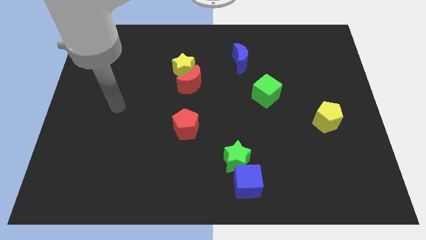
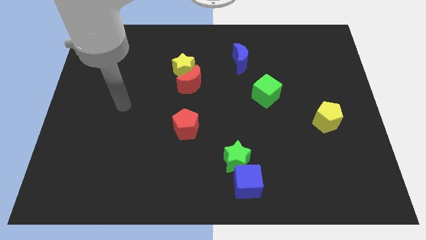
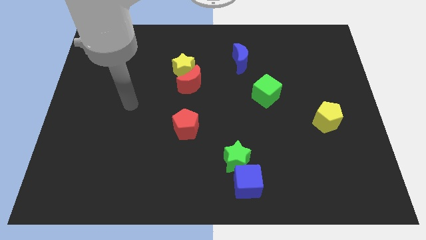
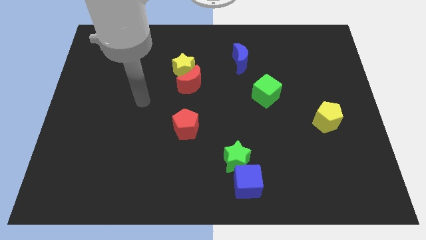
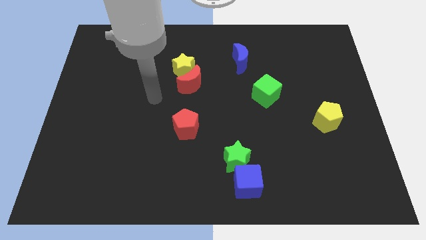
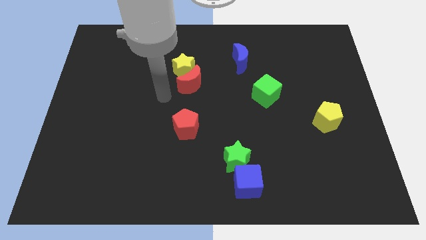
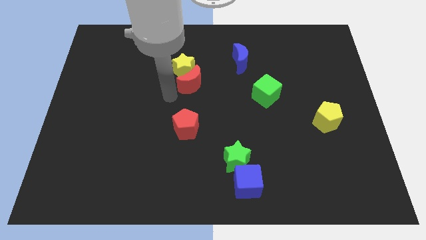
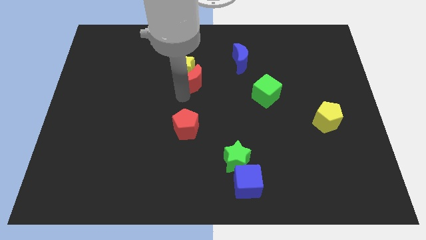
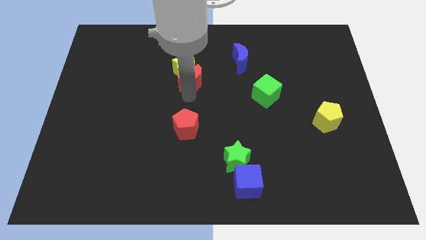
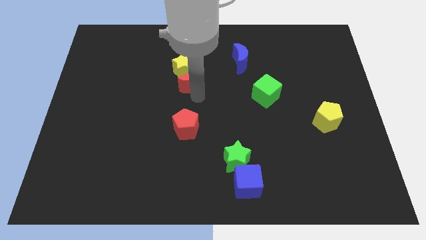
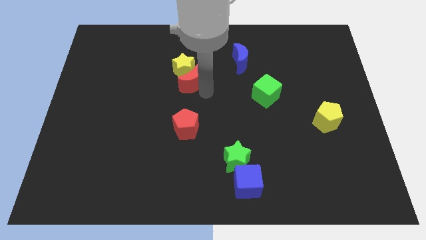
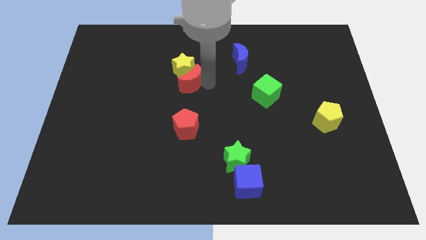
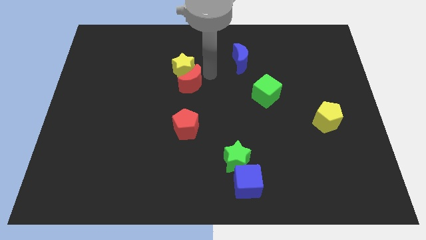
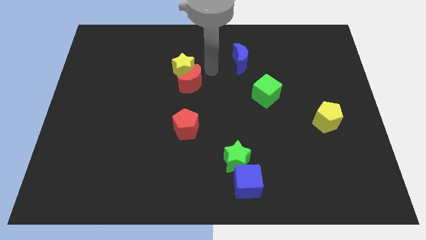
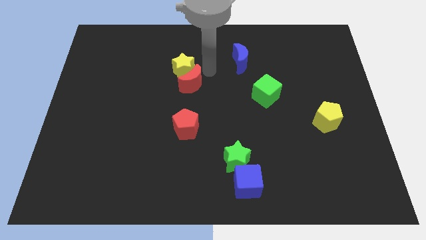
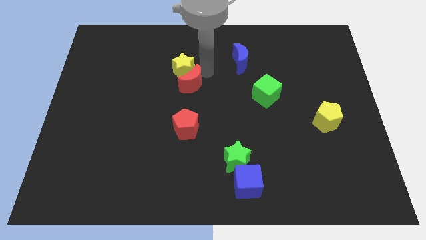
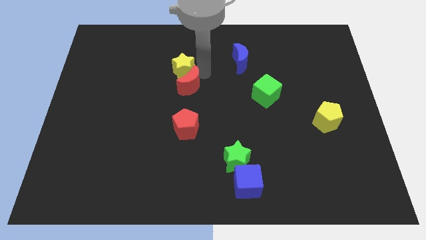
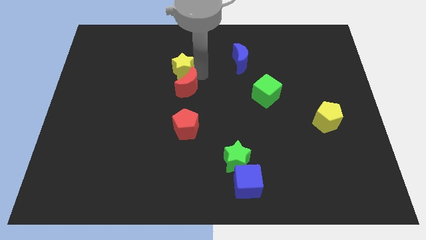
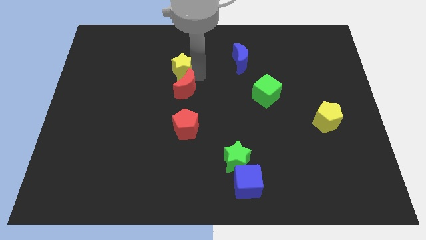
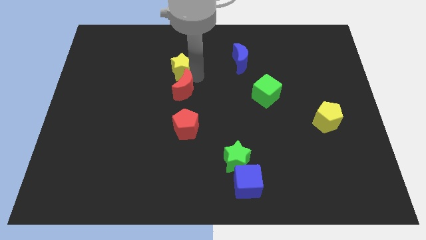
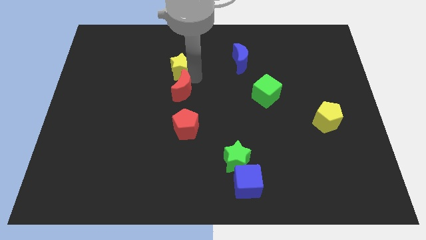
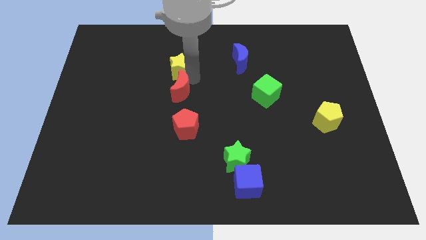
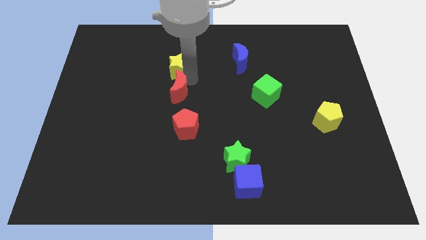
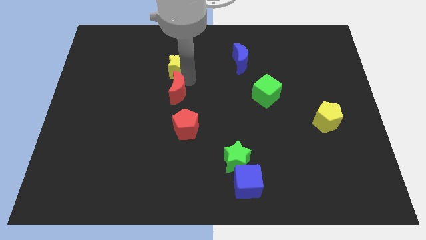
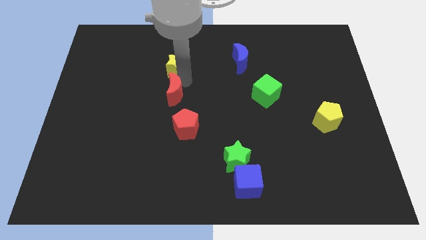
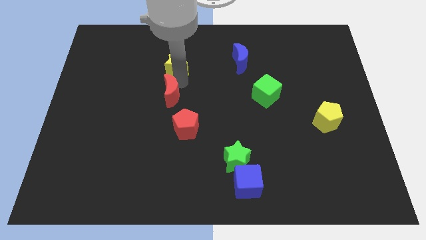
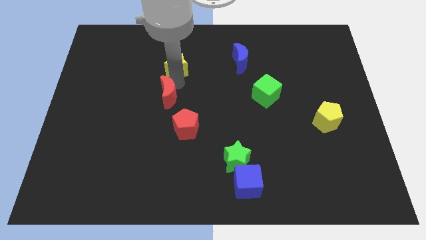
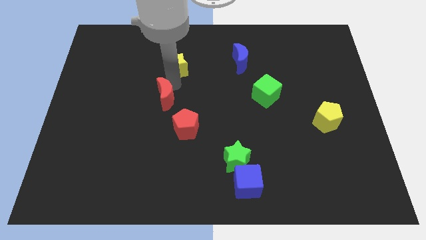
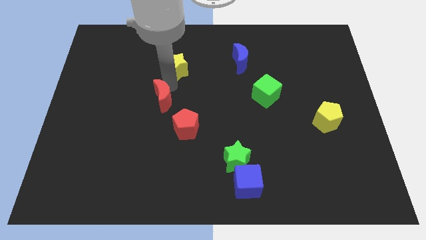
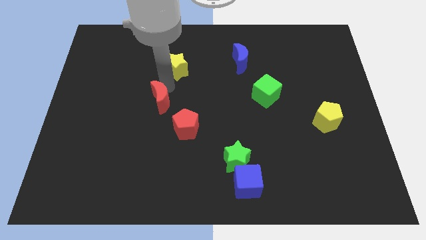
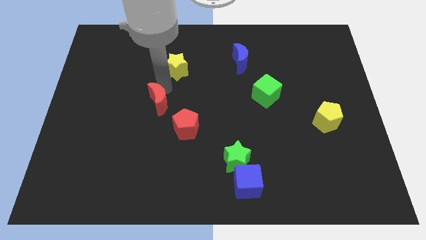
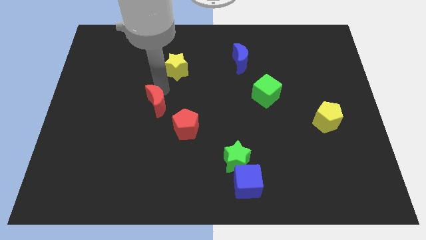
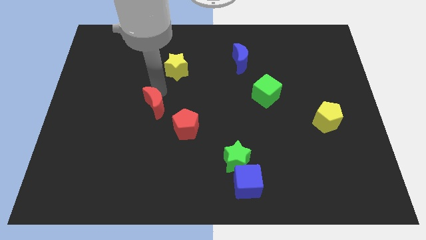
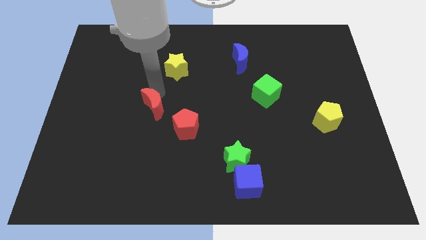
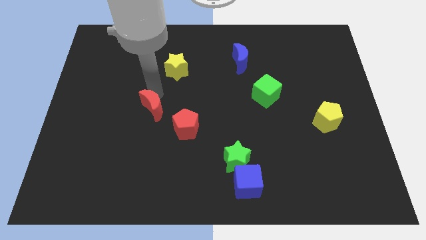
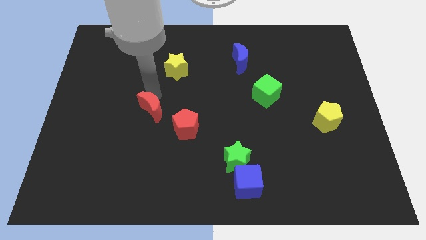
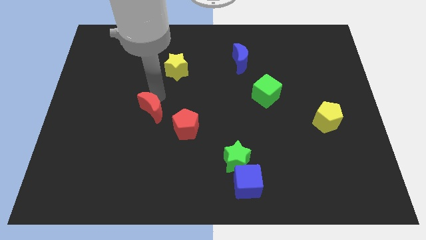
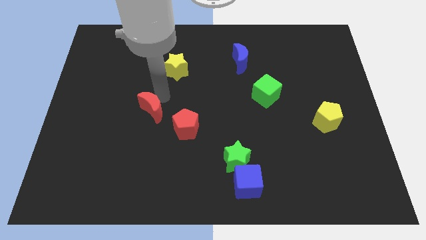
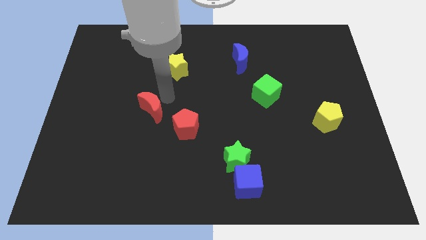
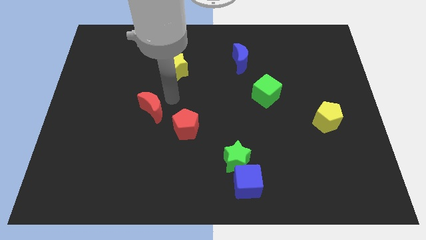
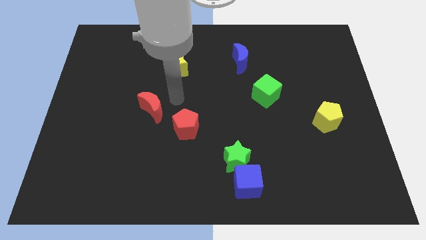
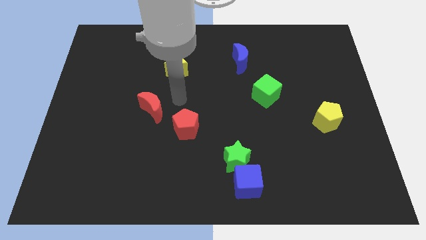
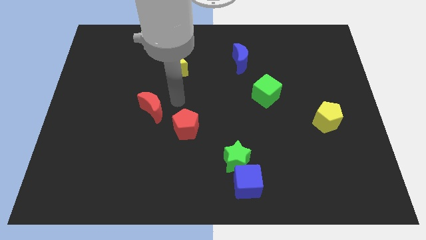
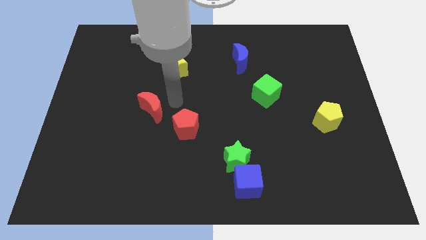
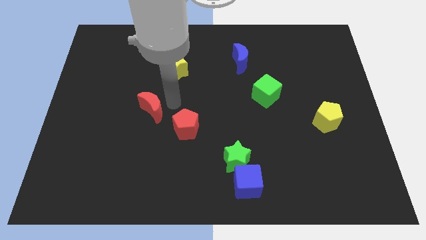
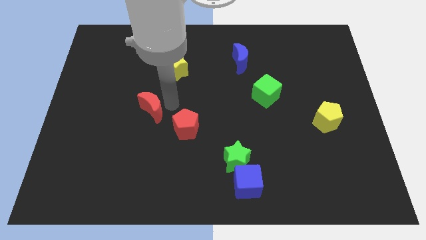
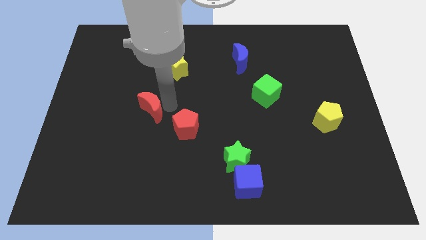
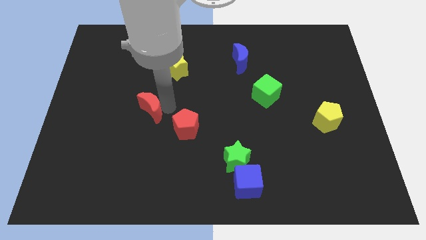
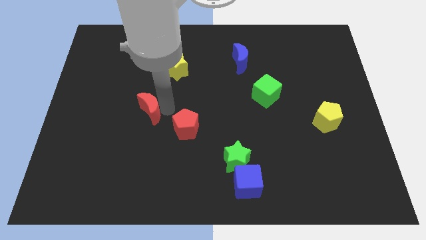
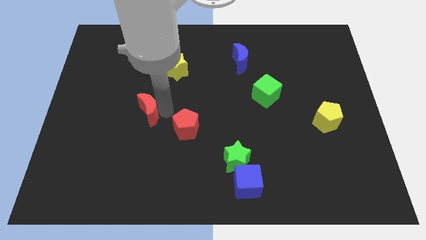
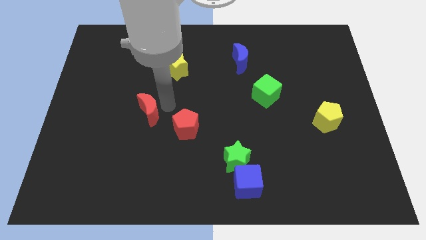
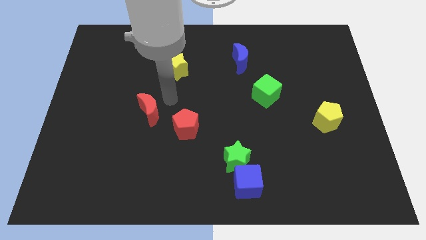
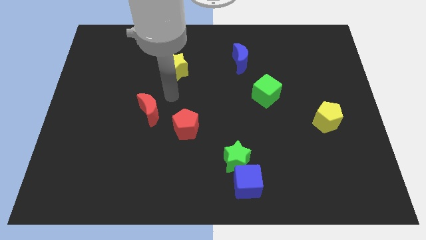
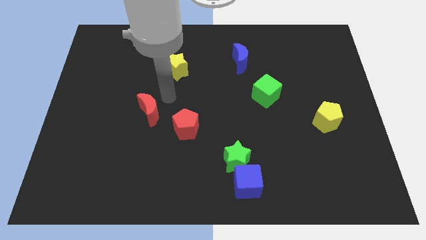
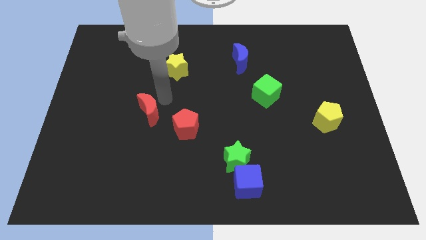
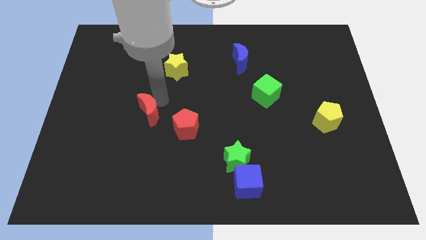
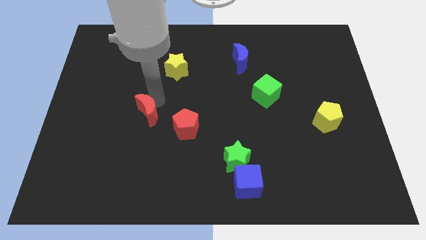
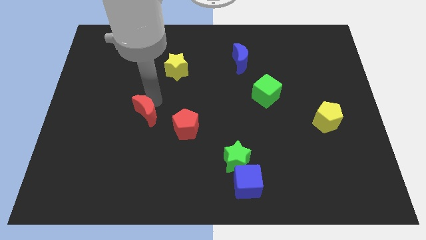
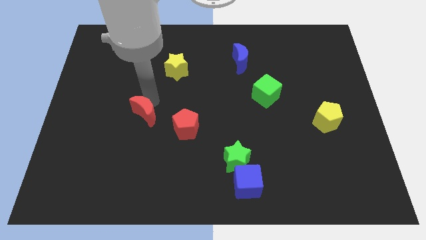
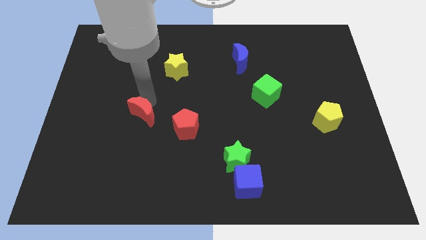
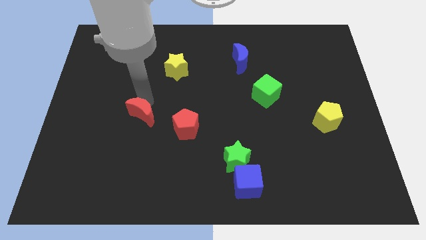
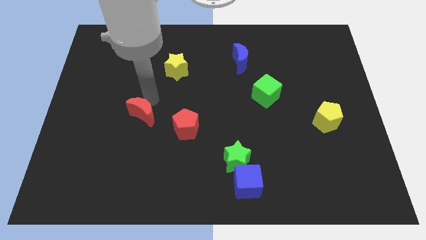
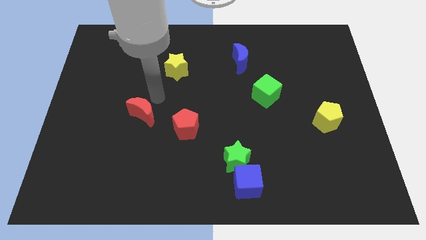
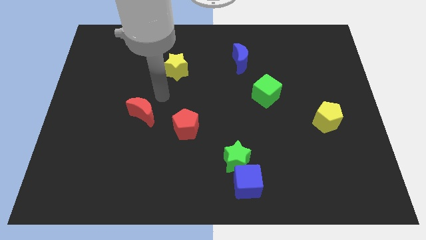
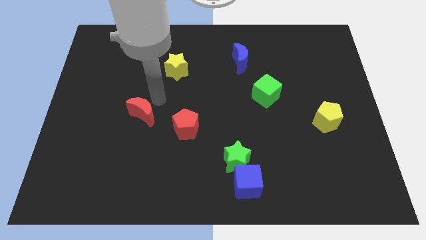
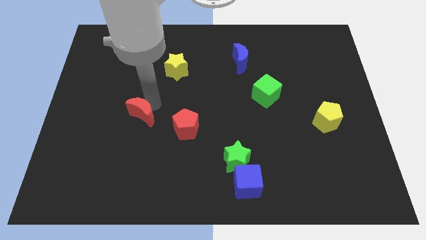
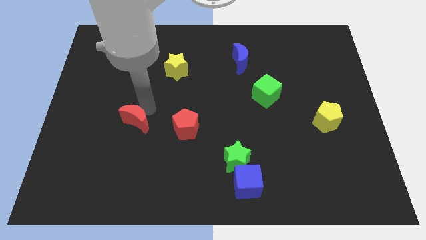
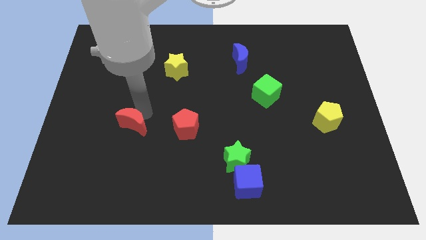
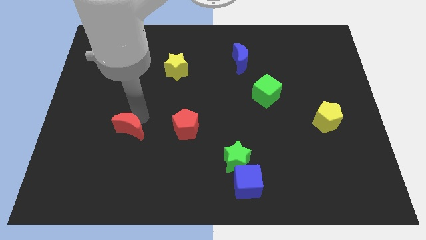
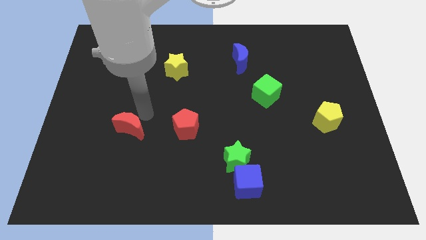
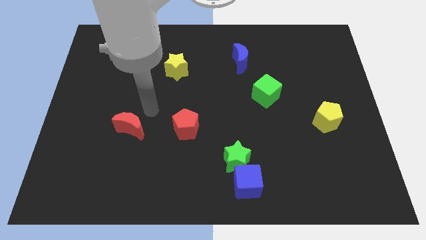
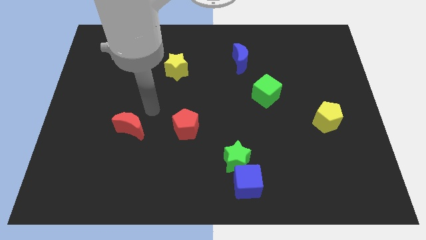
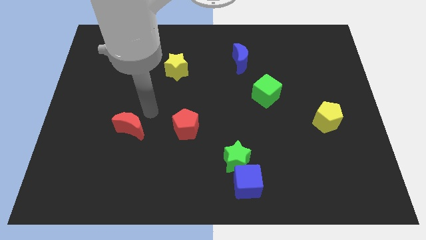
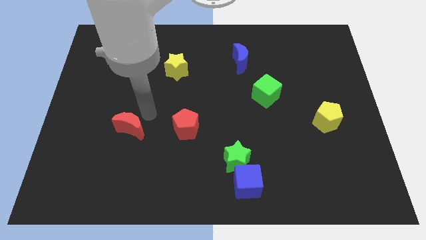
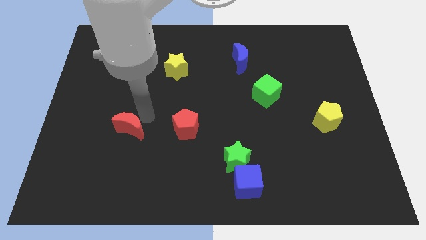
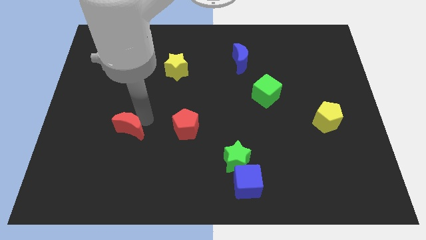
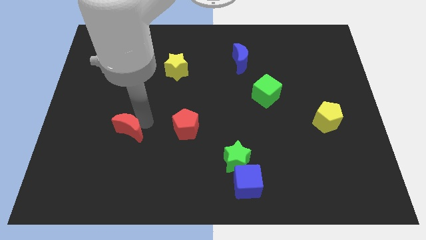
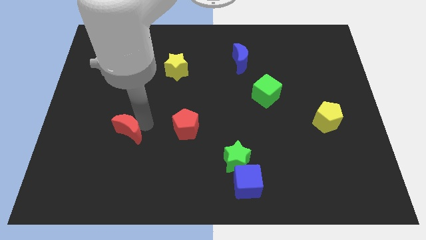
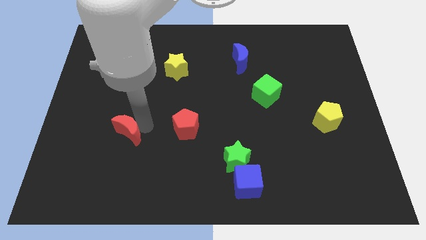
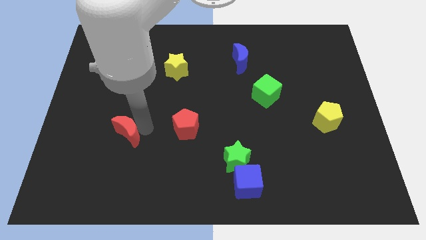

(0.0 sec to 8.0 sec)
slide the red moon diagonally downwards and left

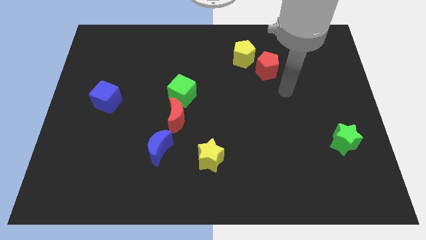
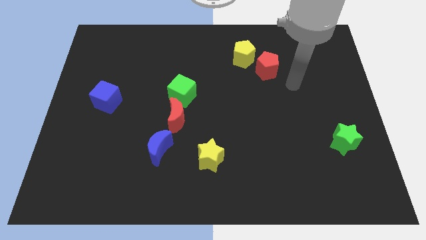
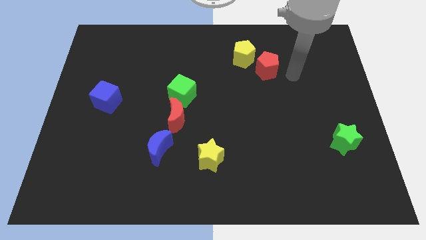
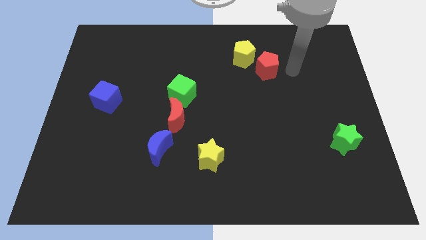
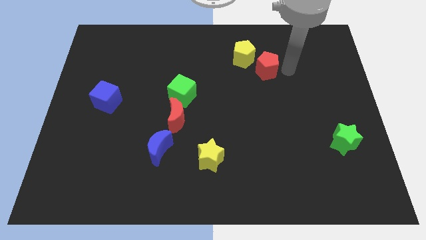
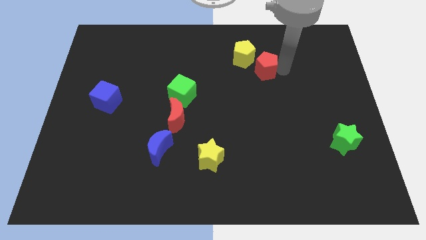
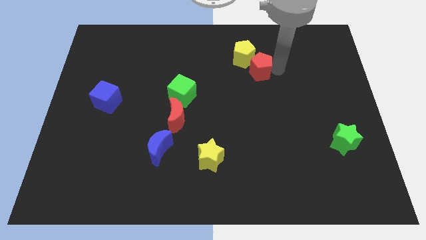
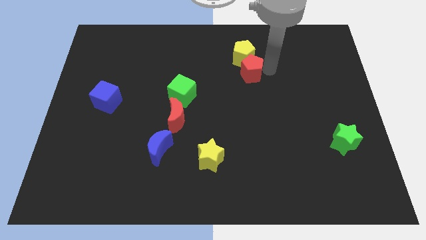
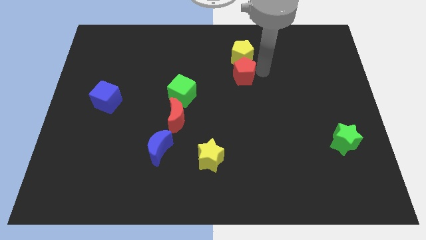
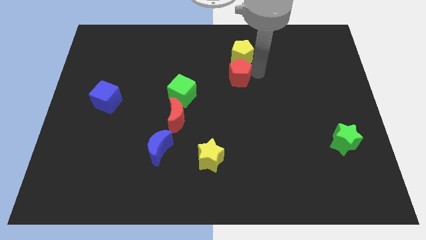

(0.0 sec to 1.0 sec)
slightly move the red pentagon left
